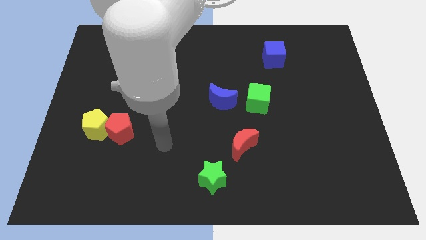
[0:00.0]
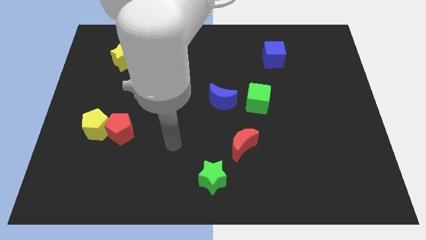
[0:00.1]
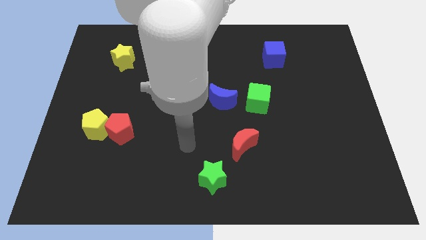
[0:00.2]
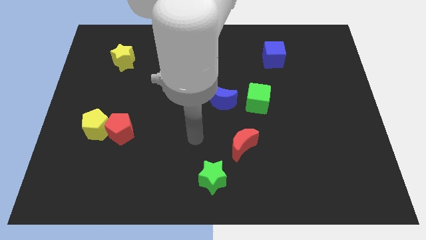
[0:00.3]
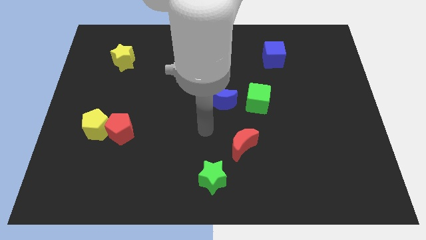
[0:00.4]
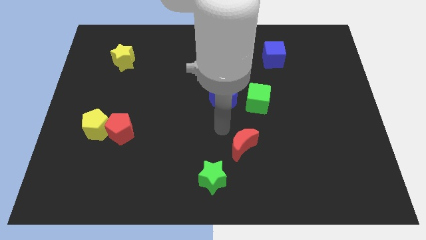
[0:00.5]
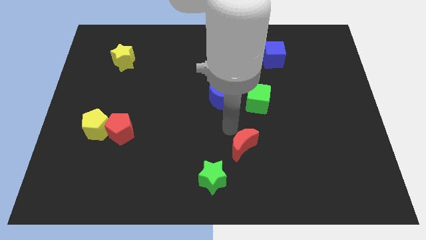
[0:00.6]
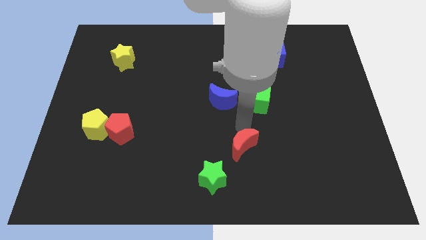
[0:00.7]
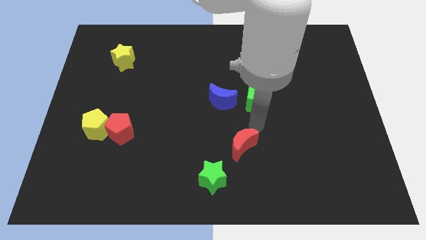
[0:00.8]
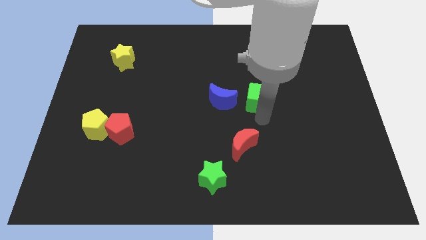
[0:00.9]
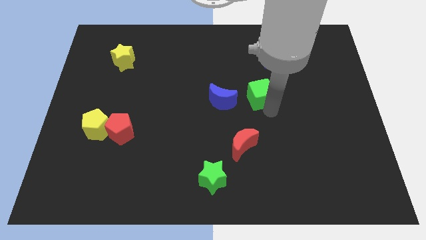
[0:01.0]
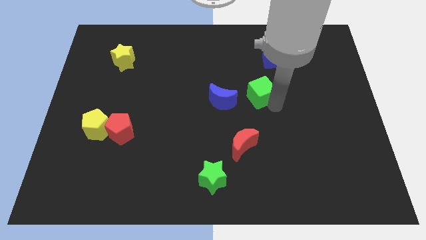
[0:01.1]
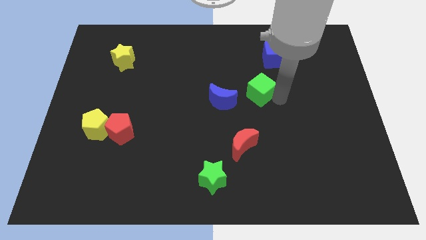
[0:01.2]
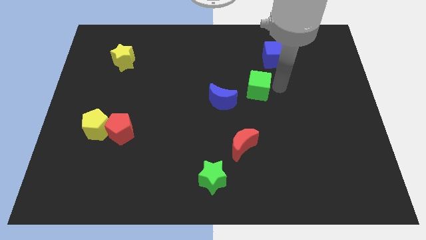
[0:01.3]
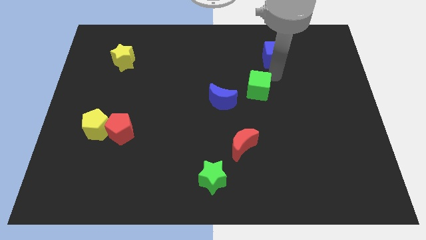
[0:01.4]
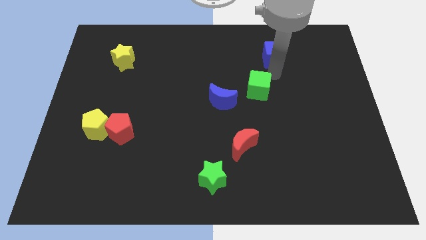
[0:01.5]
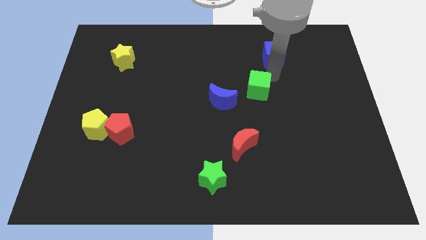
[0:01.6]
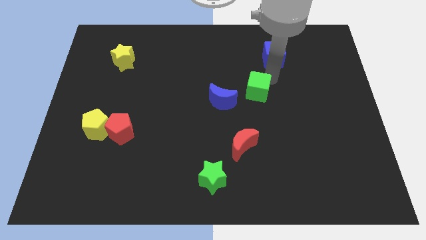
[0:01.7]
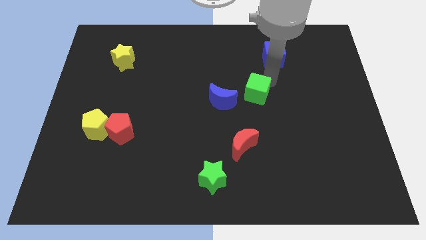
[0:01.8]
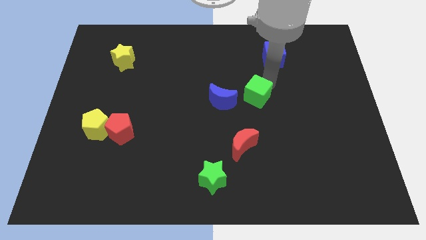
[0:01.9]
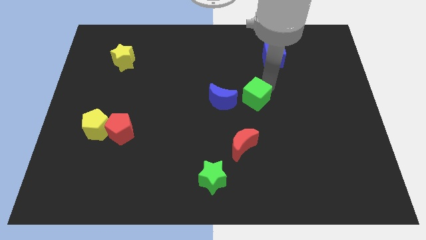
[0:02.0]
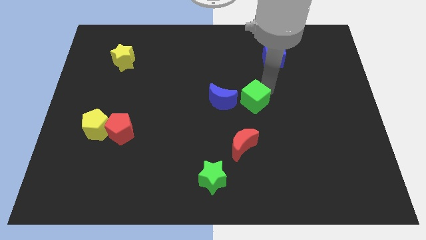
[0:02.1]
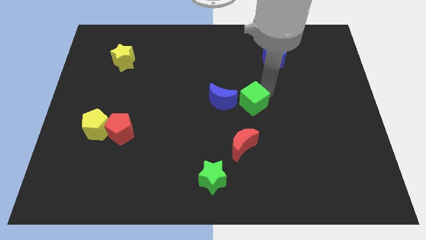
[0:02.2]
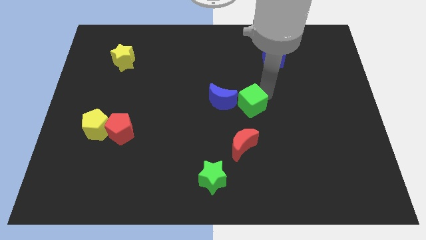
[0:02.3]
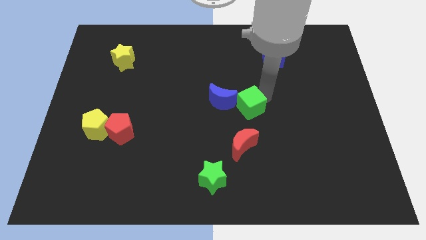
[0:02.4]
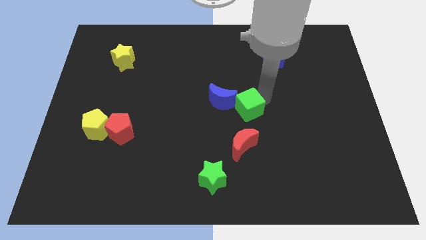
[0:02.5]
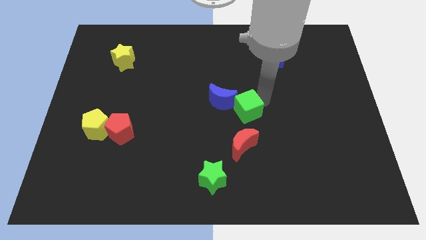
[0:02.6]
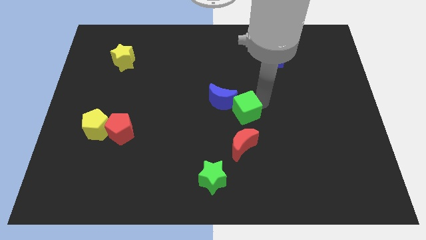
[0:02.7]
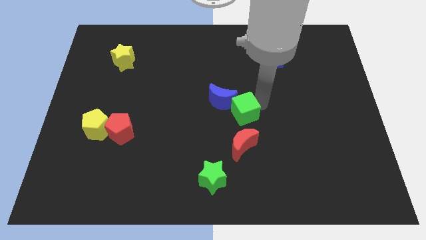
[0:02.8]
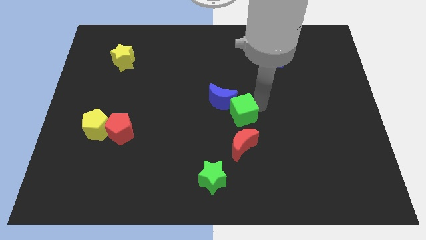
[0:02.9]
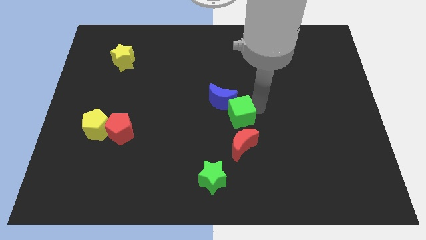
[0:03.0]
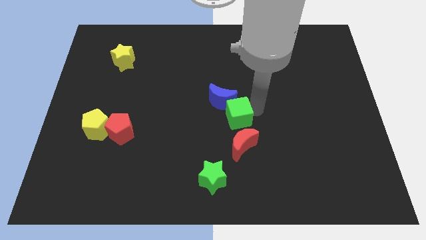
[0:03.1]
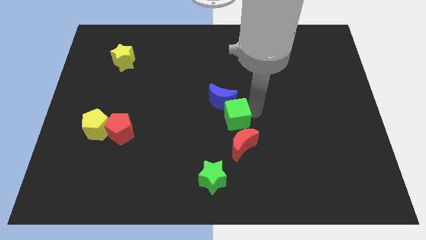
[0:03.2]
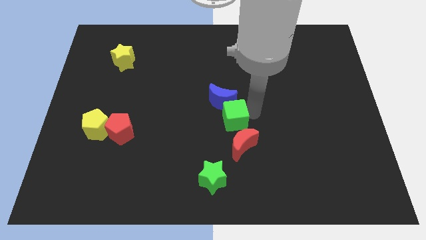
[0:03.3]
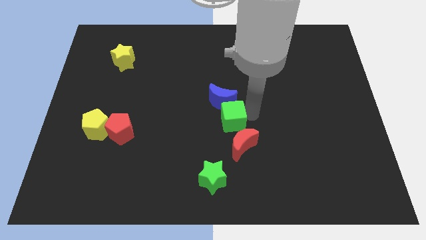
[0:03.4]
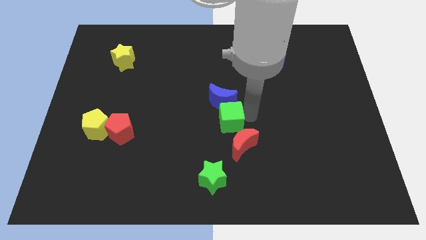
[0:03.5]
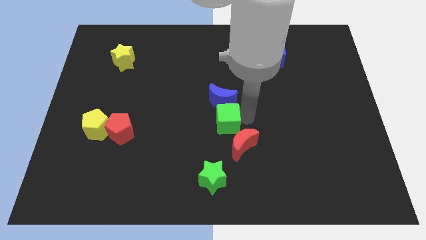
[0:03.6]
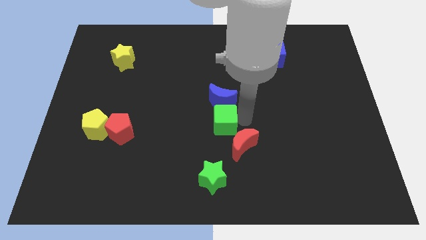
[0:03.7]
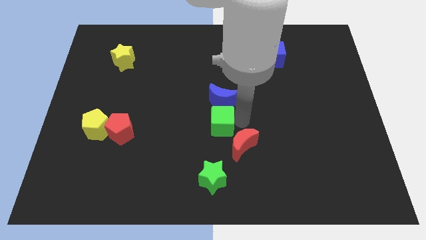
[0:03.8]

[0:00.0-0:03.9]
push the green cube slightly to the left

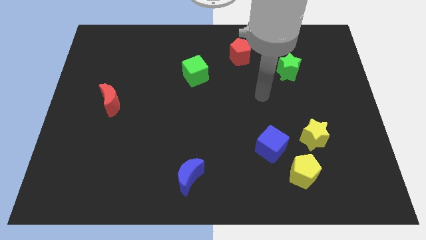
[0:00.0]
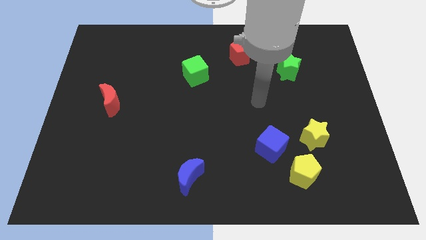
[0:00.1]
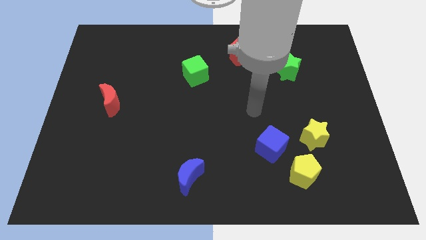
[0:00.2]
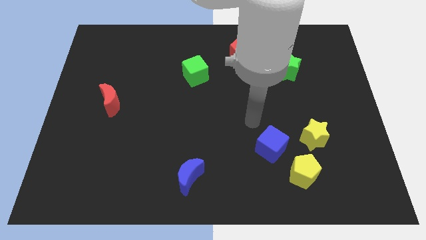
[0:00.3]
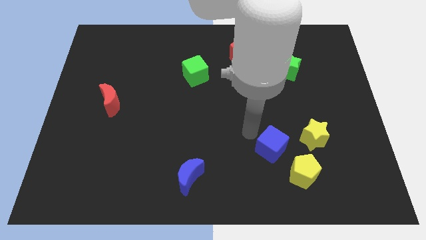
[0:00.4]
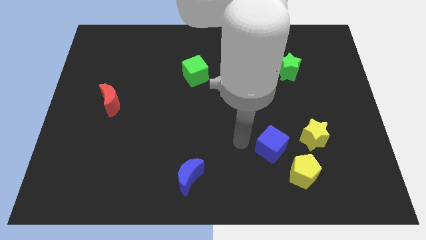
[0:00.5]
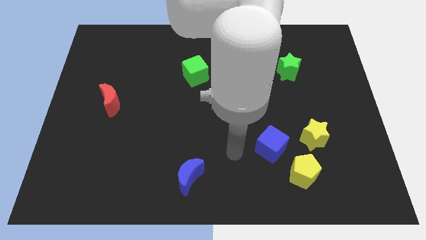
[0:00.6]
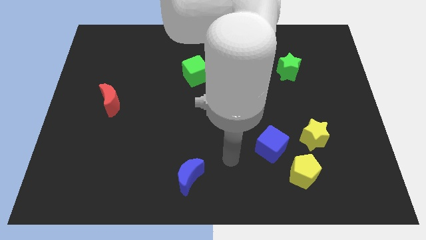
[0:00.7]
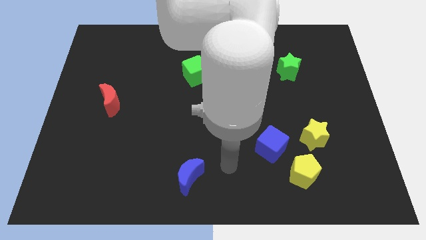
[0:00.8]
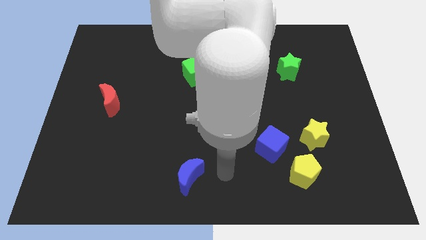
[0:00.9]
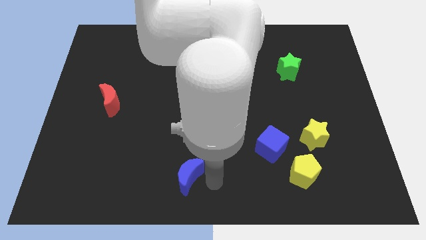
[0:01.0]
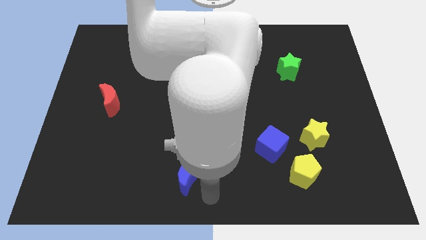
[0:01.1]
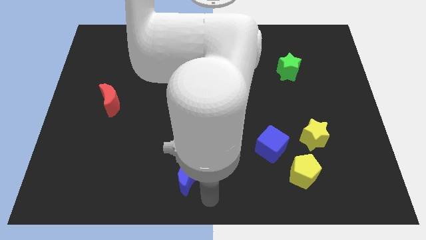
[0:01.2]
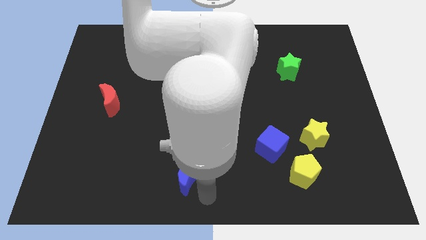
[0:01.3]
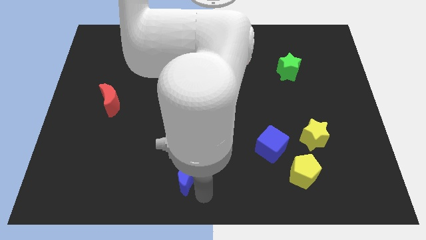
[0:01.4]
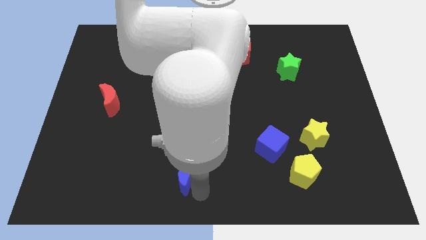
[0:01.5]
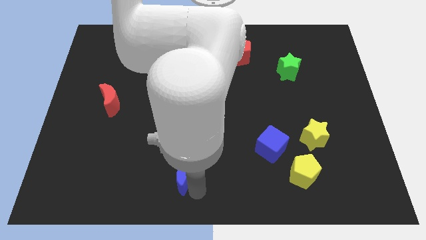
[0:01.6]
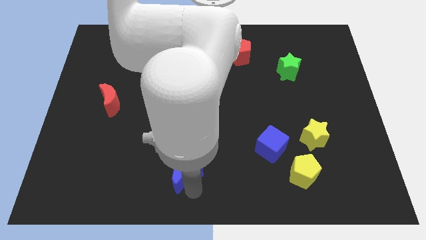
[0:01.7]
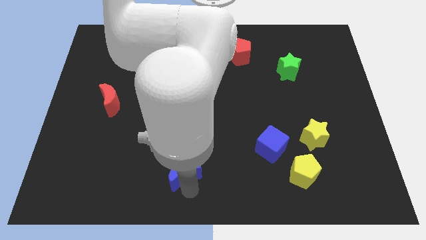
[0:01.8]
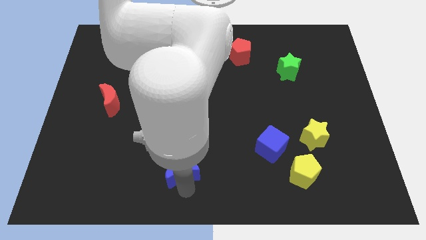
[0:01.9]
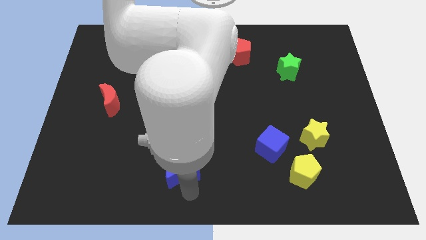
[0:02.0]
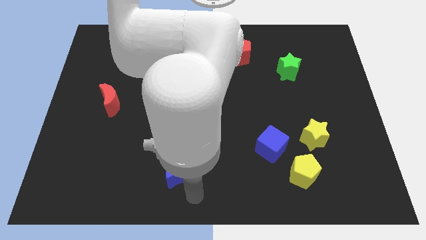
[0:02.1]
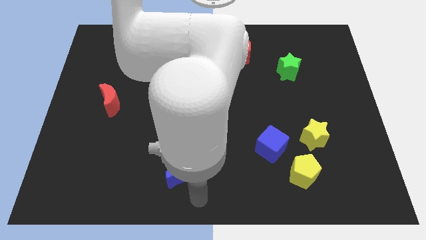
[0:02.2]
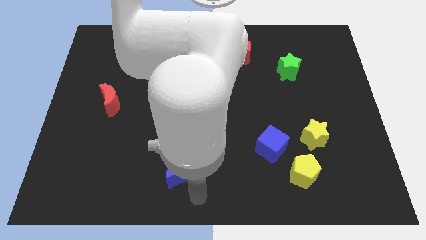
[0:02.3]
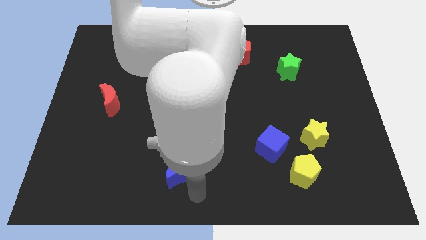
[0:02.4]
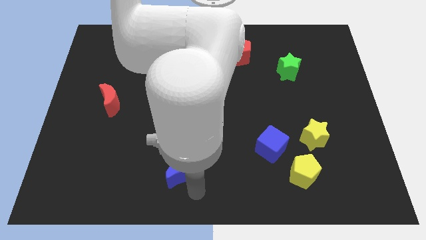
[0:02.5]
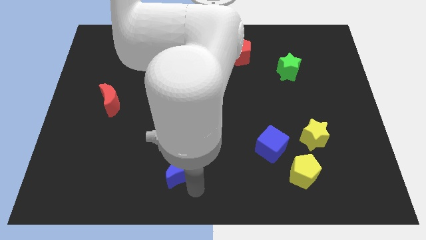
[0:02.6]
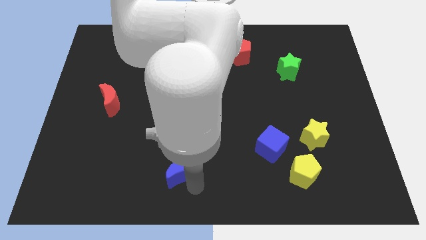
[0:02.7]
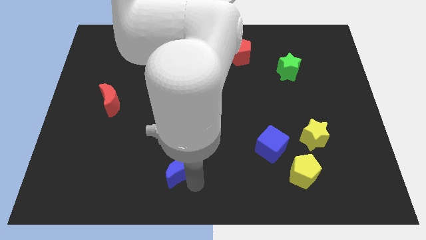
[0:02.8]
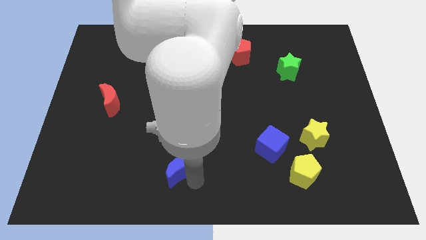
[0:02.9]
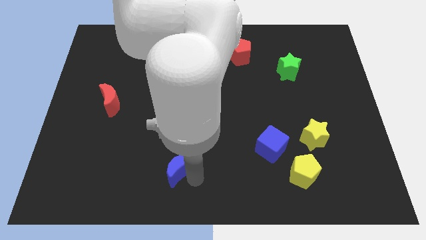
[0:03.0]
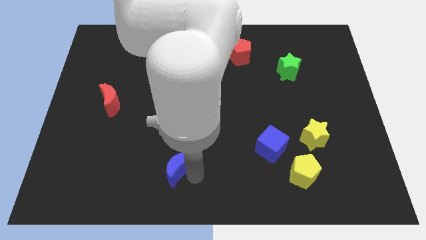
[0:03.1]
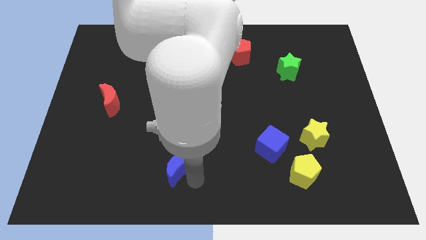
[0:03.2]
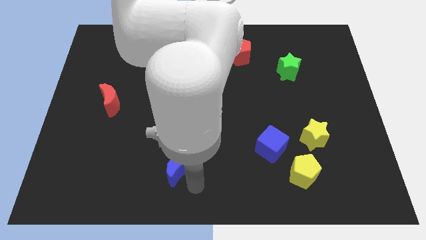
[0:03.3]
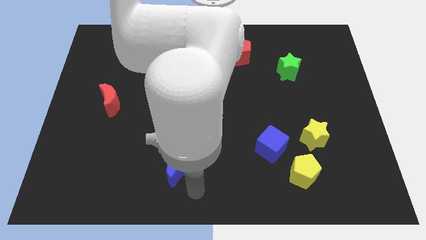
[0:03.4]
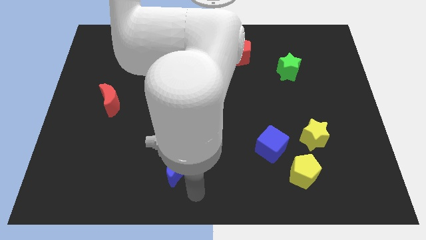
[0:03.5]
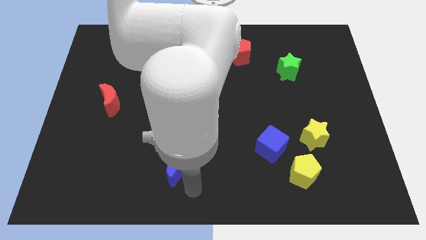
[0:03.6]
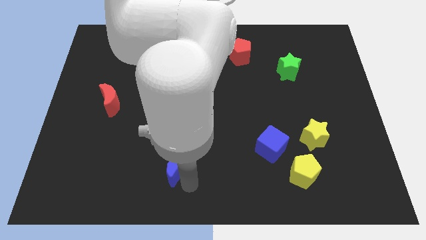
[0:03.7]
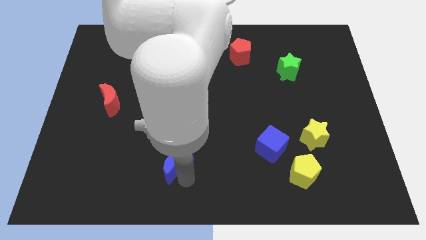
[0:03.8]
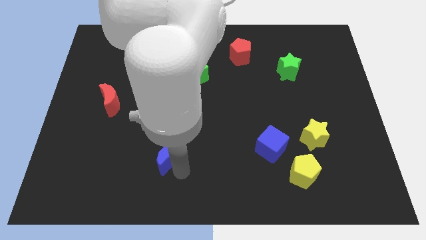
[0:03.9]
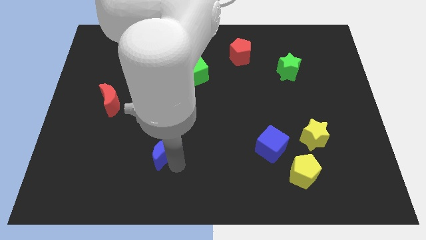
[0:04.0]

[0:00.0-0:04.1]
slightly push the blue moon upwards and to the left diagonally
